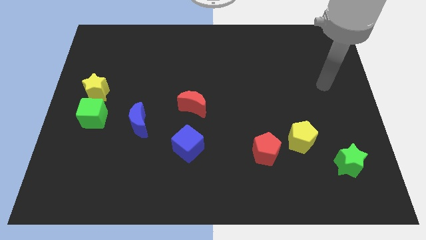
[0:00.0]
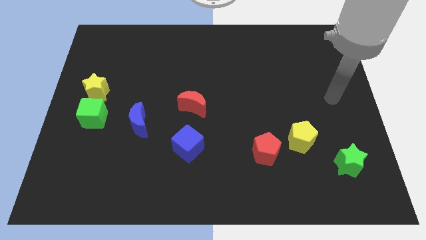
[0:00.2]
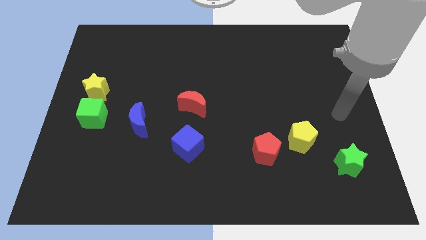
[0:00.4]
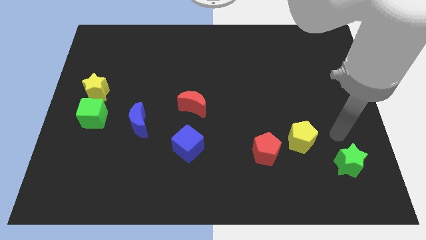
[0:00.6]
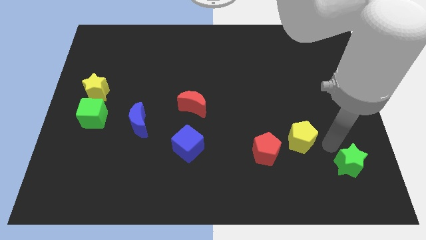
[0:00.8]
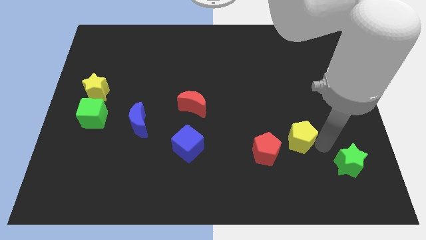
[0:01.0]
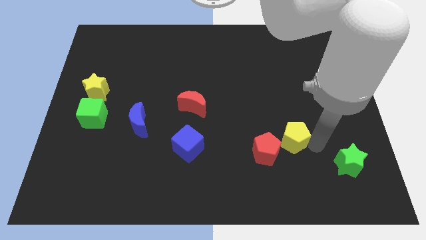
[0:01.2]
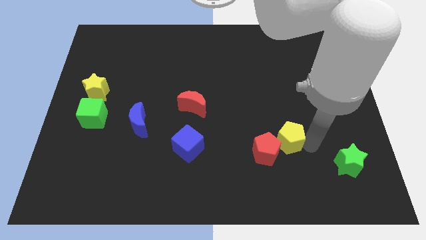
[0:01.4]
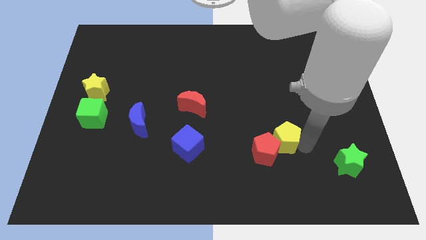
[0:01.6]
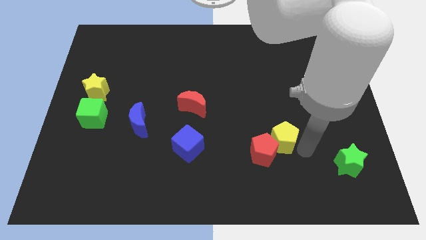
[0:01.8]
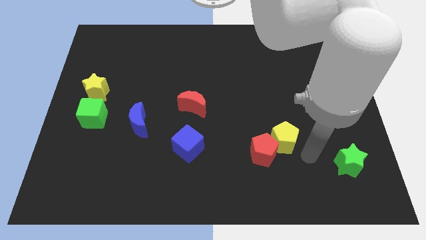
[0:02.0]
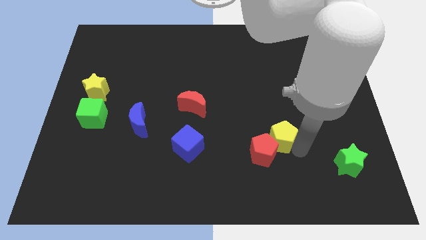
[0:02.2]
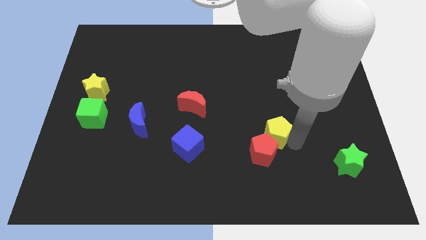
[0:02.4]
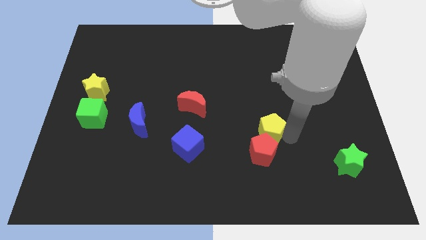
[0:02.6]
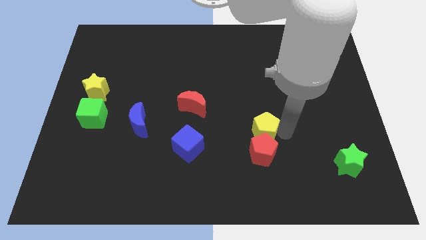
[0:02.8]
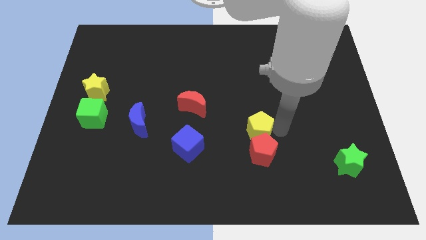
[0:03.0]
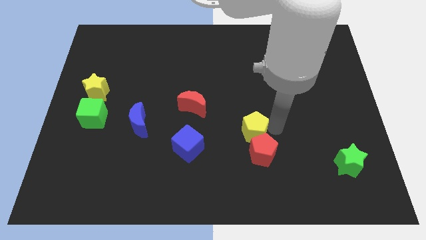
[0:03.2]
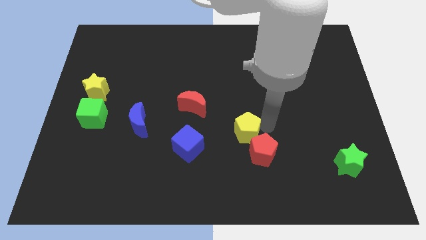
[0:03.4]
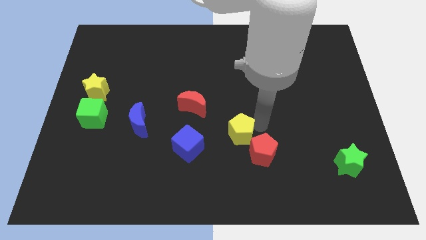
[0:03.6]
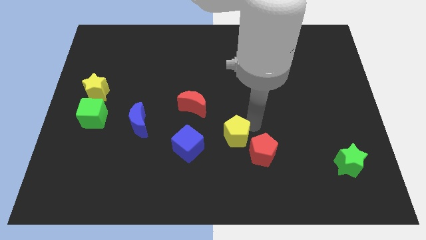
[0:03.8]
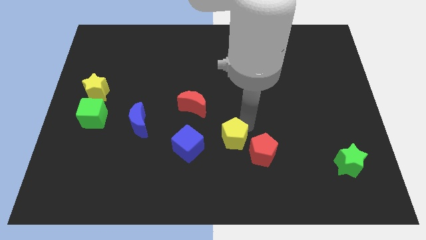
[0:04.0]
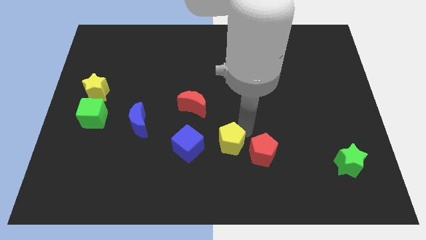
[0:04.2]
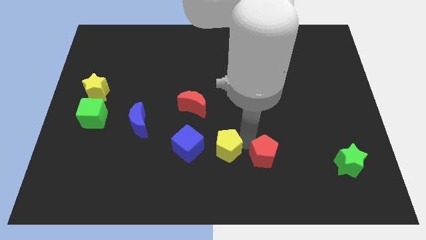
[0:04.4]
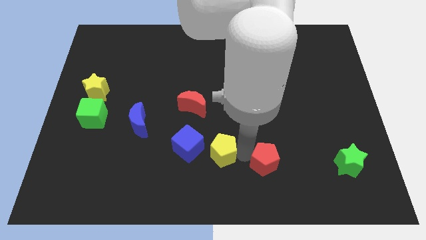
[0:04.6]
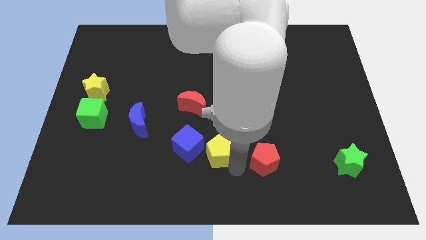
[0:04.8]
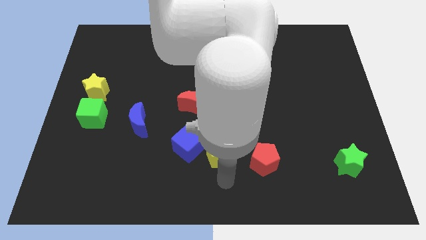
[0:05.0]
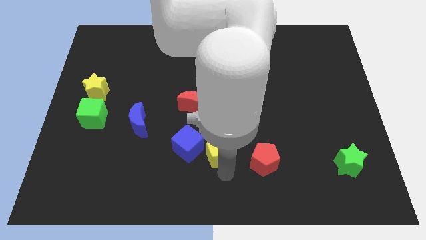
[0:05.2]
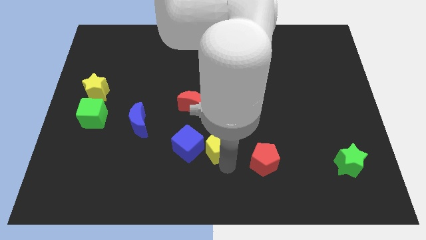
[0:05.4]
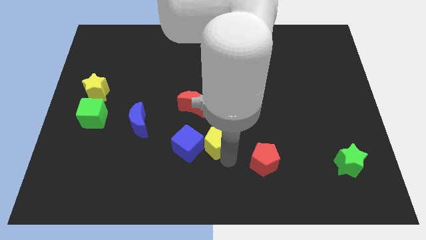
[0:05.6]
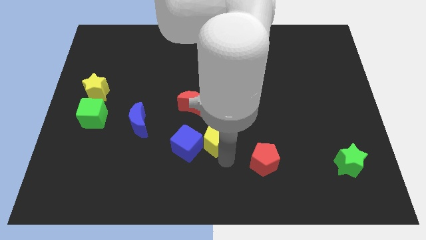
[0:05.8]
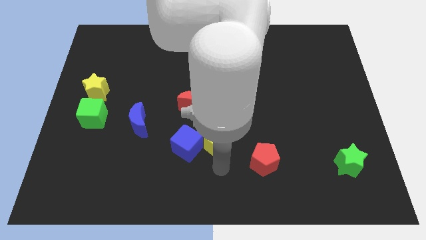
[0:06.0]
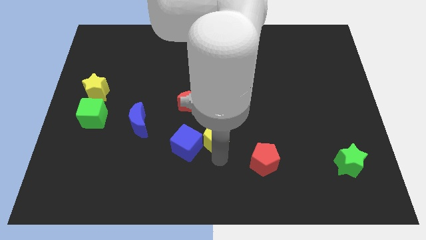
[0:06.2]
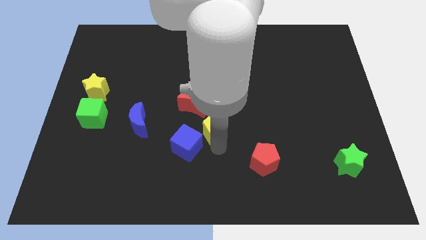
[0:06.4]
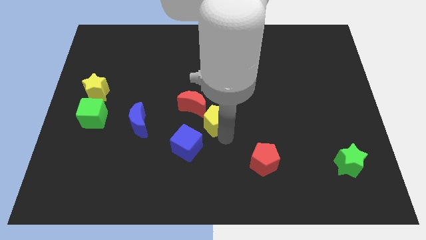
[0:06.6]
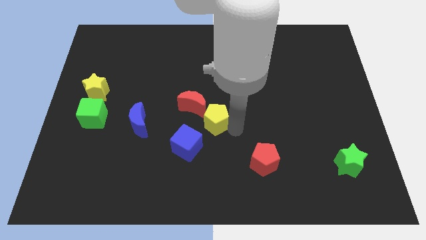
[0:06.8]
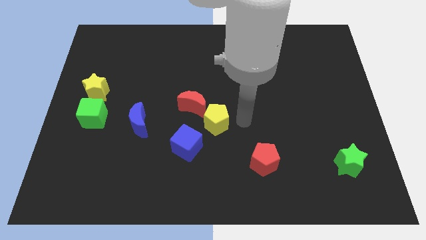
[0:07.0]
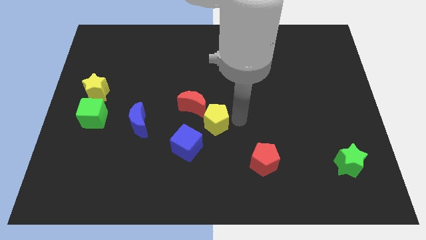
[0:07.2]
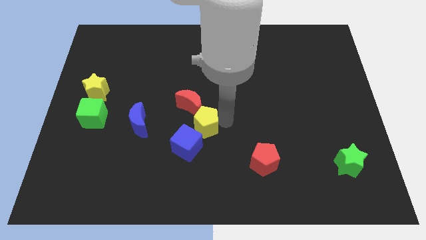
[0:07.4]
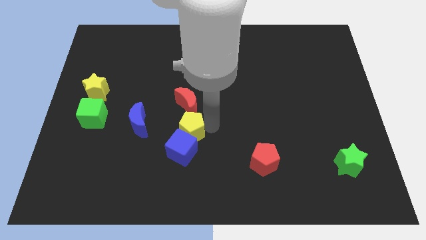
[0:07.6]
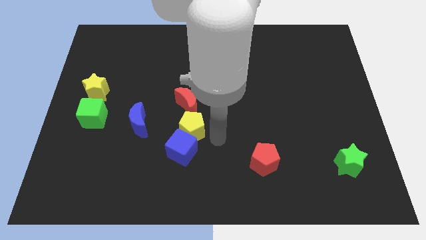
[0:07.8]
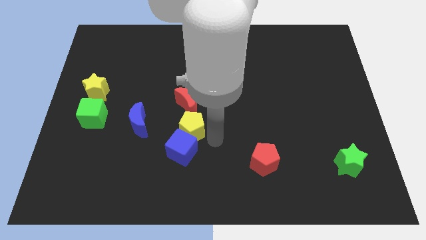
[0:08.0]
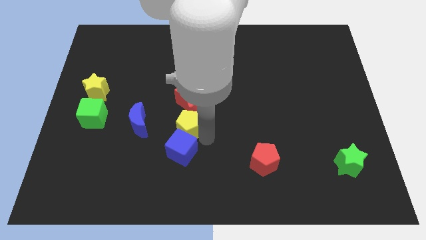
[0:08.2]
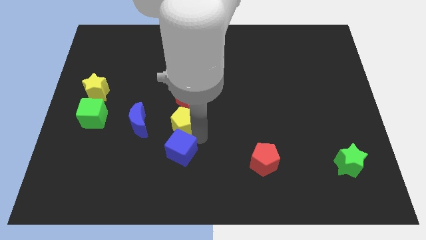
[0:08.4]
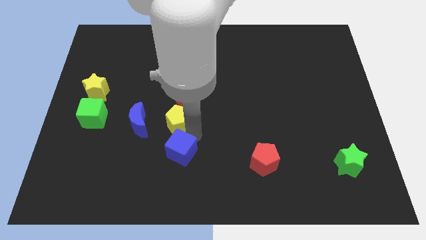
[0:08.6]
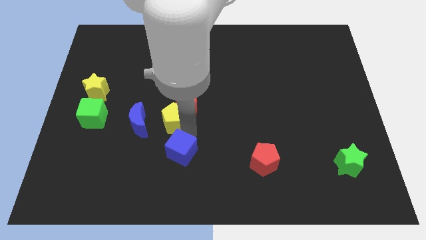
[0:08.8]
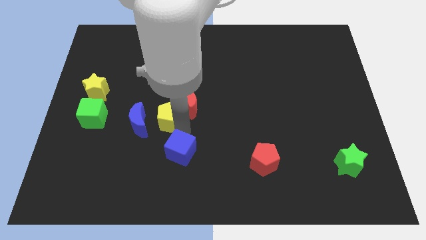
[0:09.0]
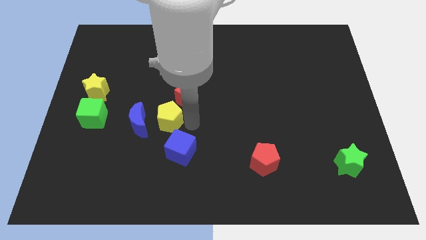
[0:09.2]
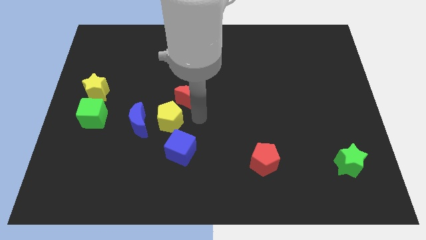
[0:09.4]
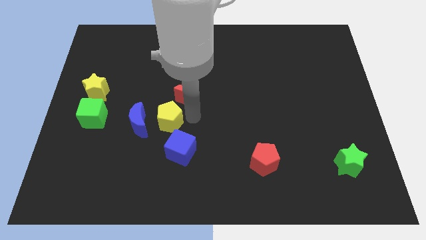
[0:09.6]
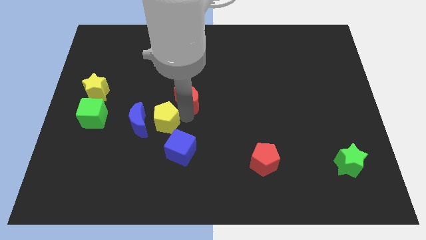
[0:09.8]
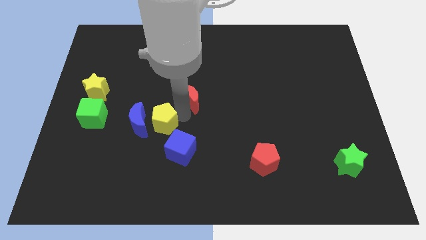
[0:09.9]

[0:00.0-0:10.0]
put the yellow pentagon close to the blue moon

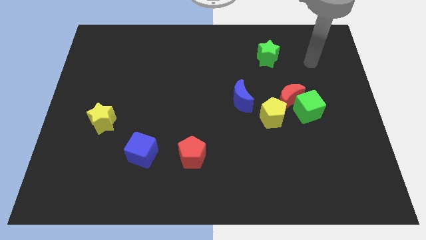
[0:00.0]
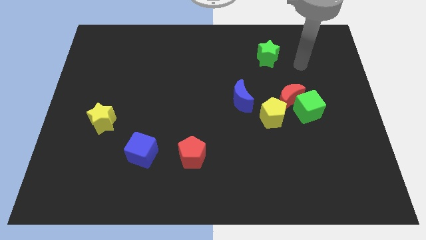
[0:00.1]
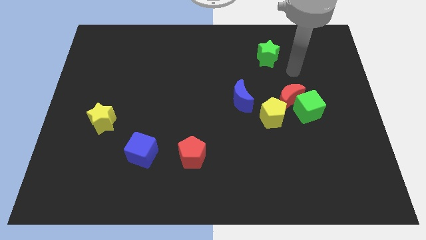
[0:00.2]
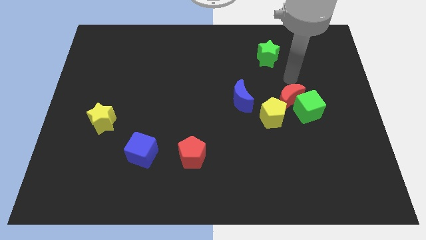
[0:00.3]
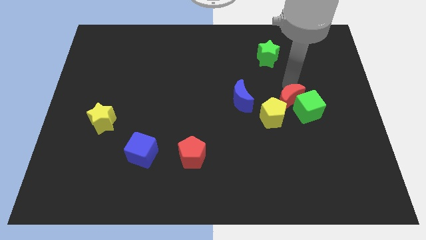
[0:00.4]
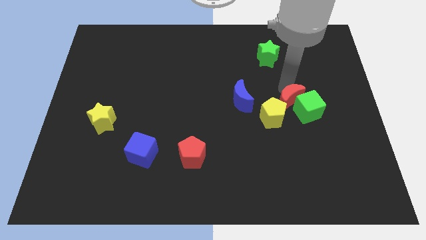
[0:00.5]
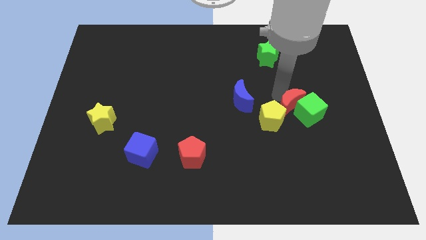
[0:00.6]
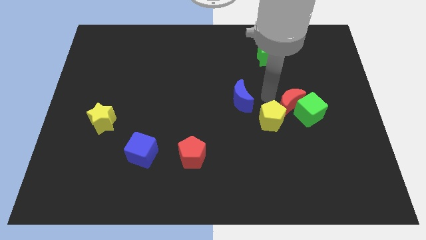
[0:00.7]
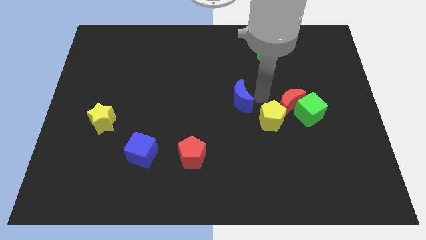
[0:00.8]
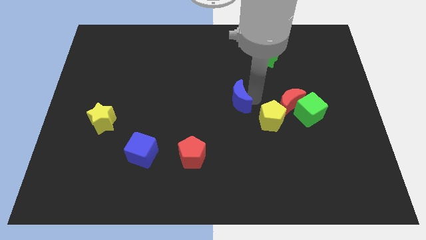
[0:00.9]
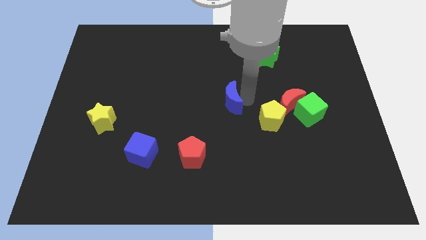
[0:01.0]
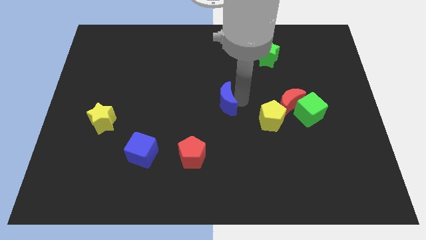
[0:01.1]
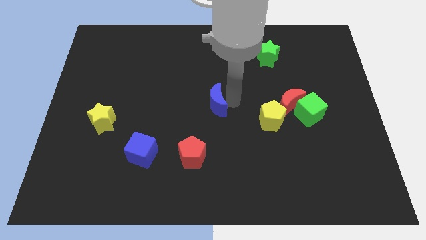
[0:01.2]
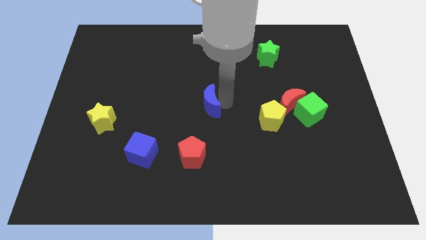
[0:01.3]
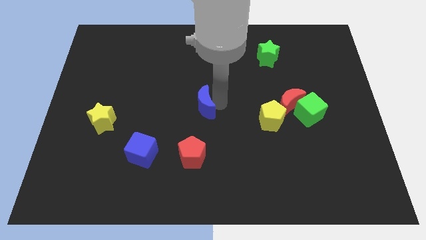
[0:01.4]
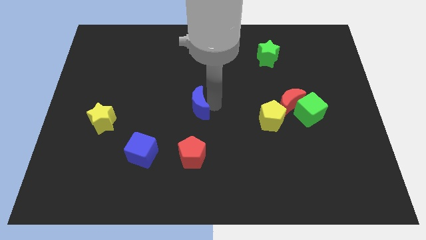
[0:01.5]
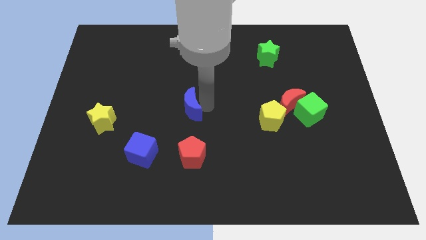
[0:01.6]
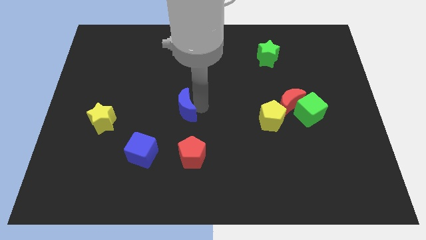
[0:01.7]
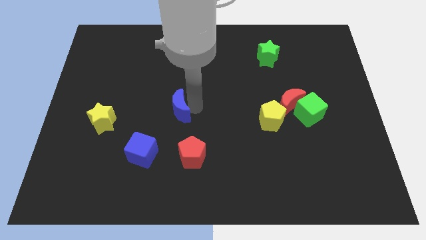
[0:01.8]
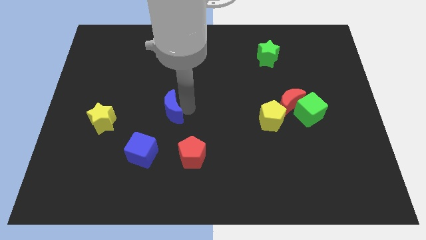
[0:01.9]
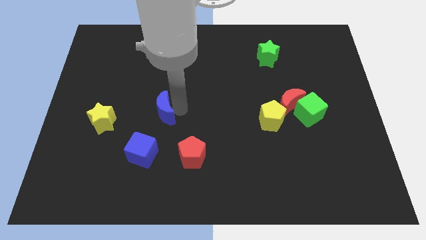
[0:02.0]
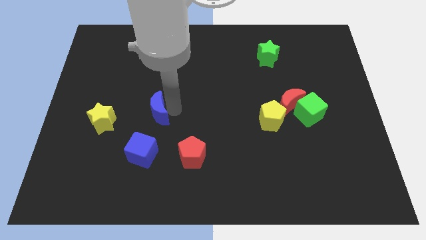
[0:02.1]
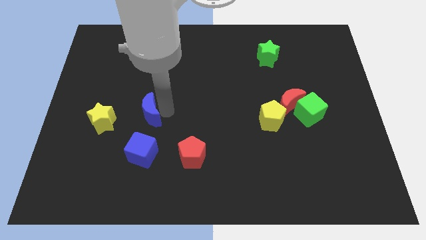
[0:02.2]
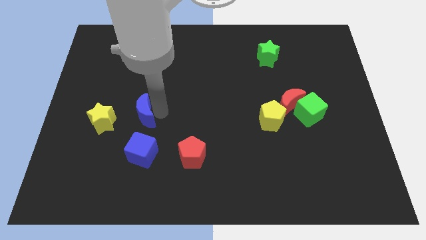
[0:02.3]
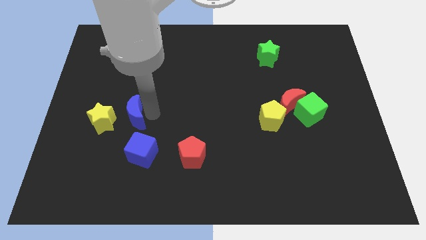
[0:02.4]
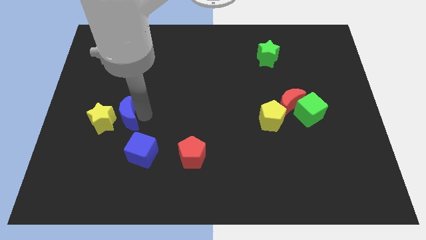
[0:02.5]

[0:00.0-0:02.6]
push the blue moon next to the yellow star
